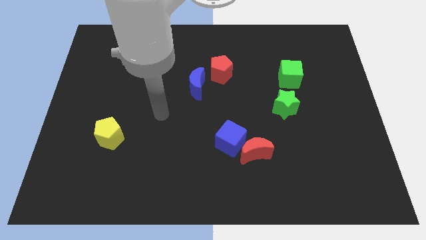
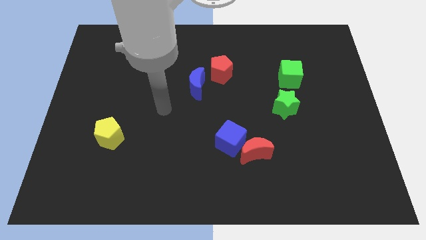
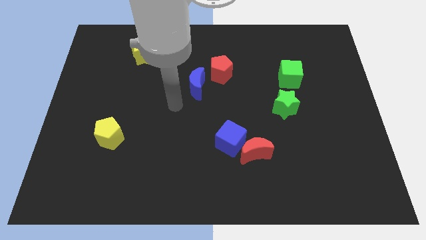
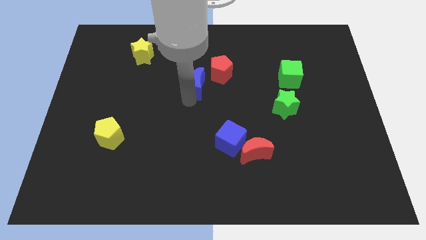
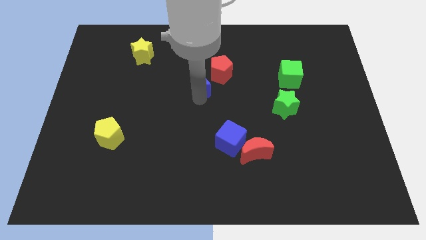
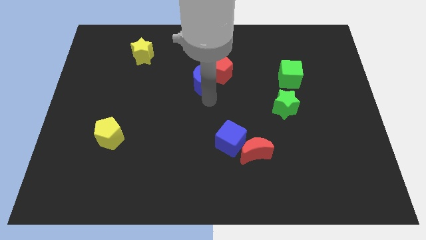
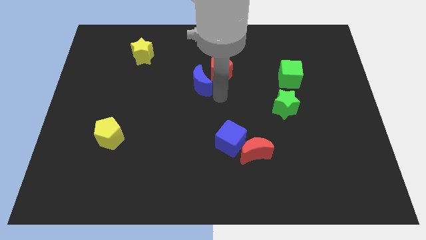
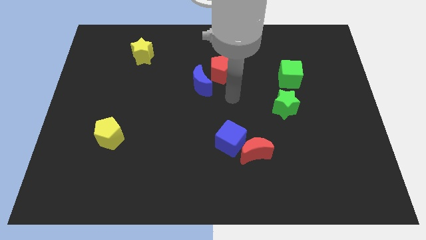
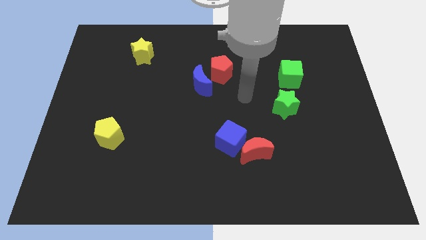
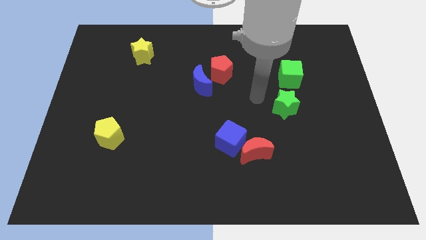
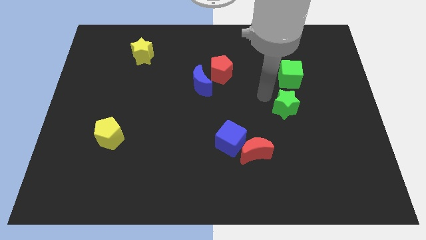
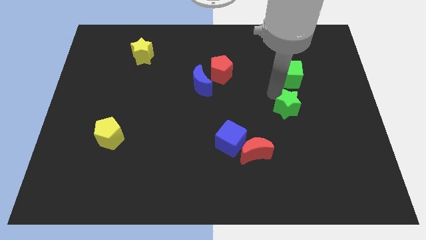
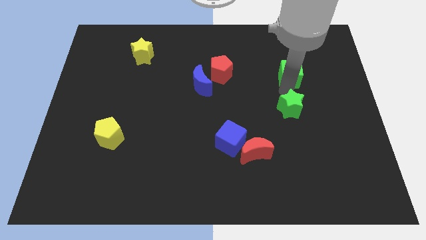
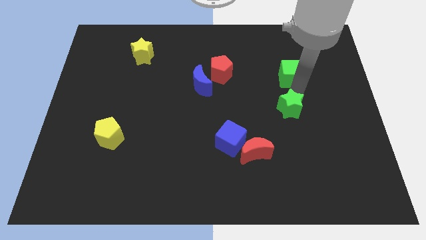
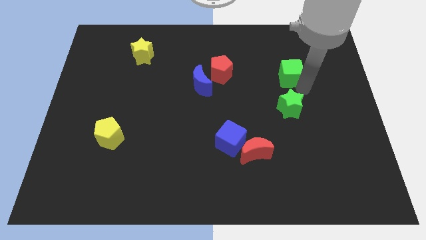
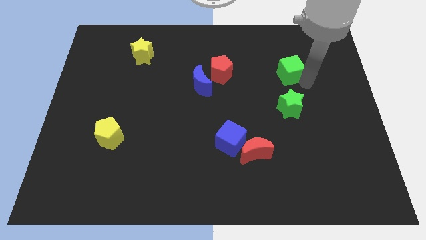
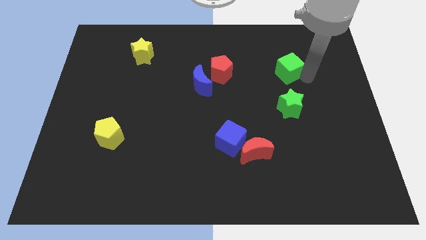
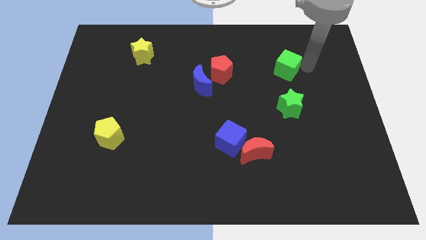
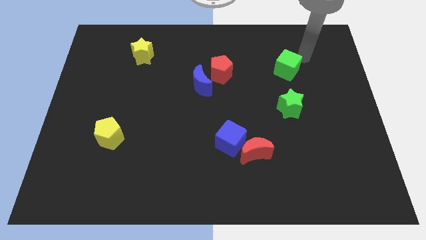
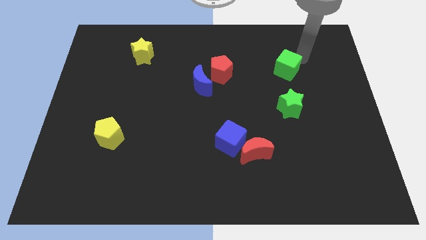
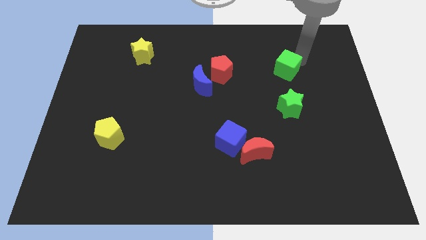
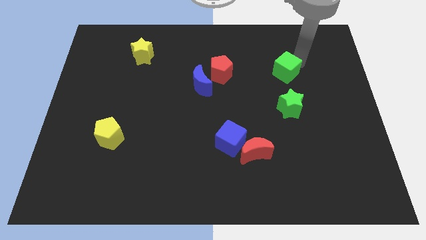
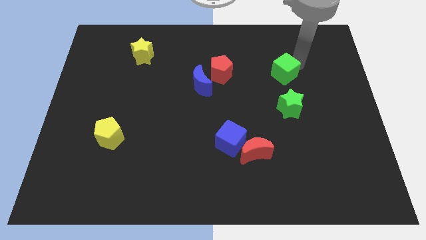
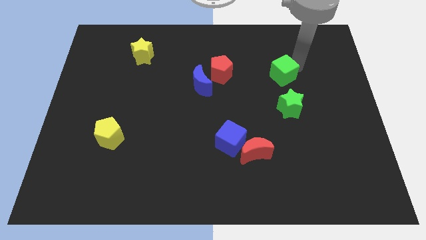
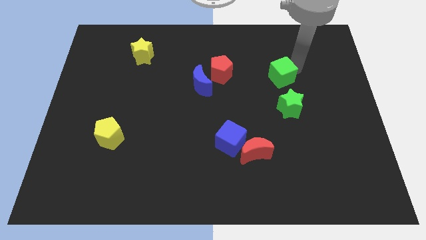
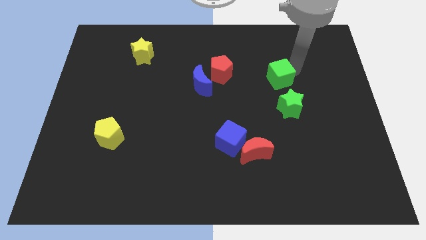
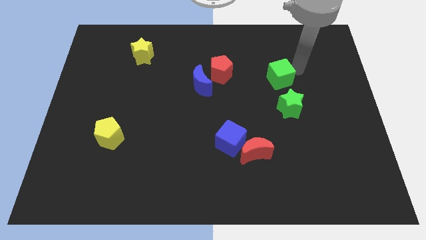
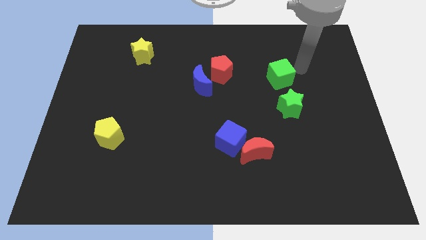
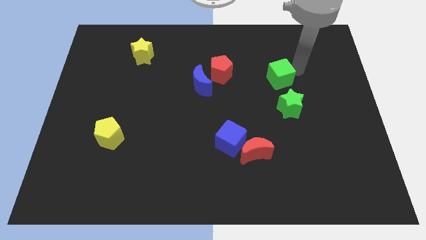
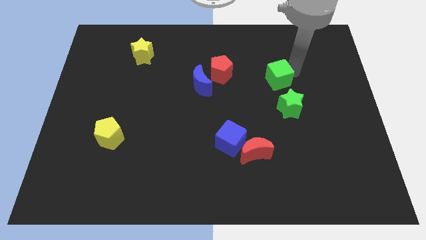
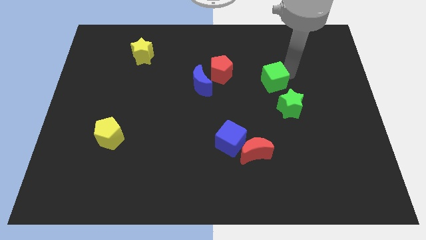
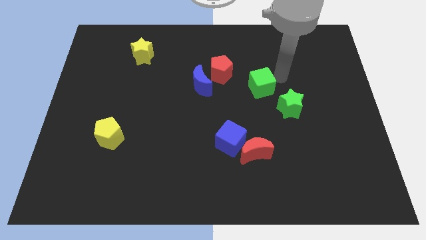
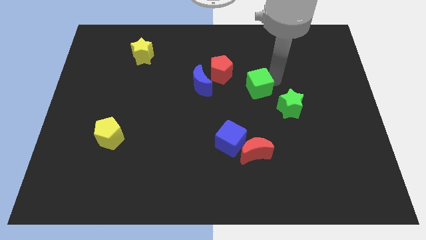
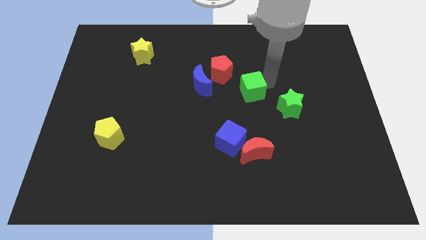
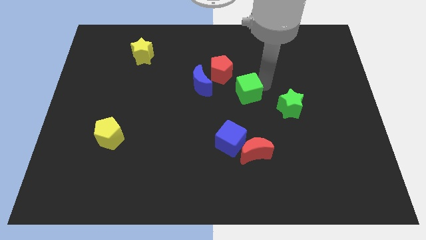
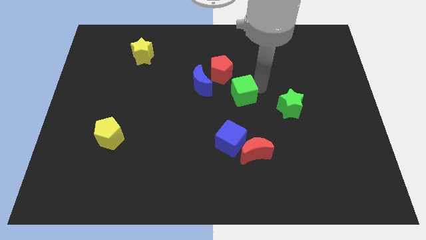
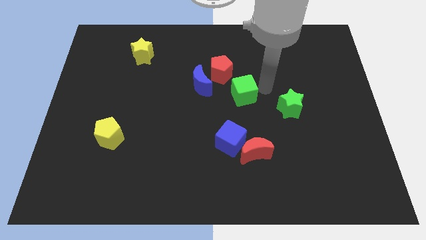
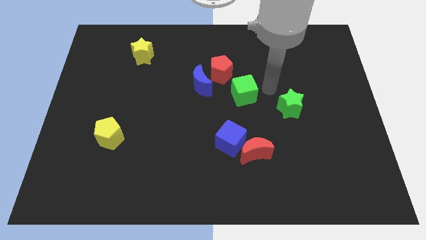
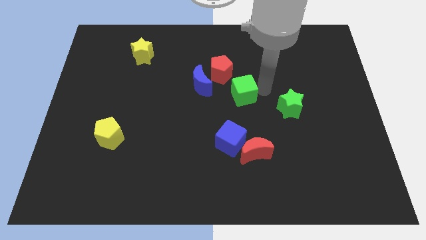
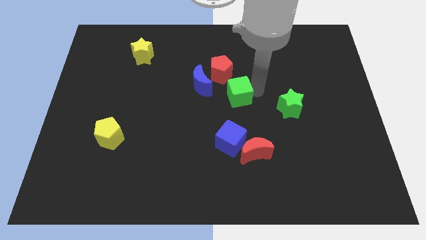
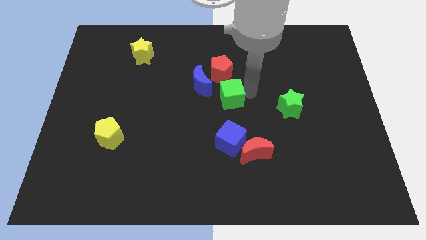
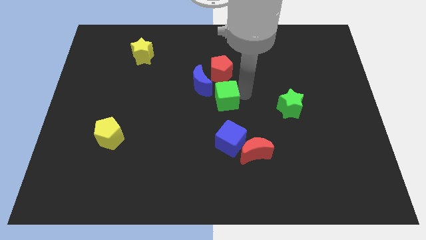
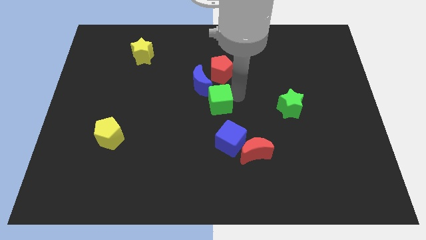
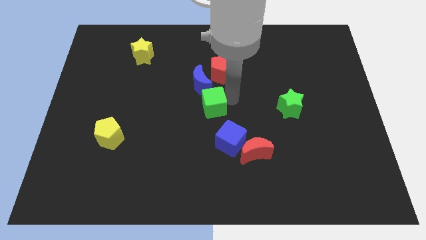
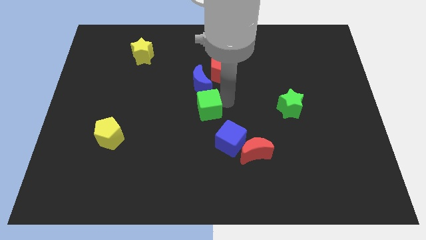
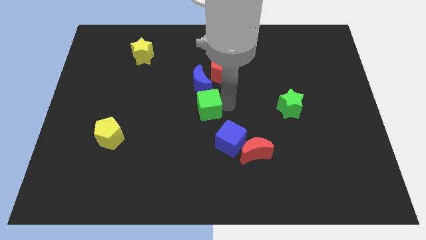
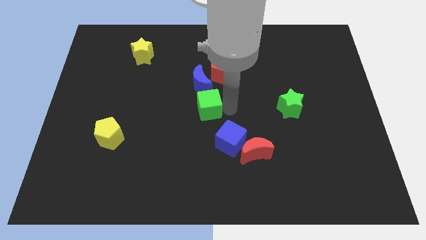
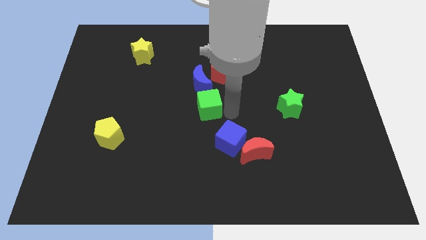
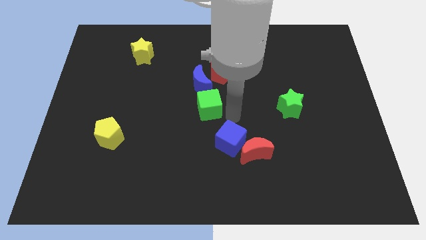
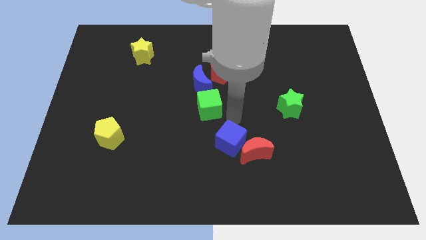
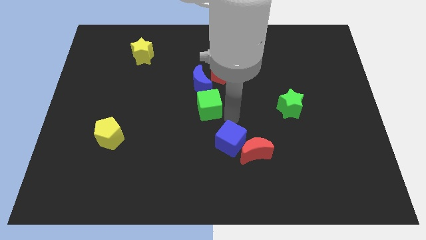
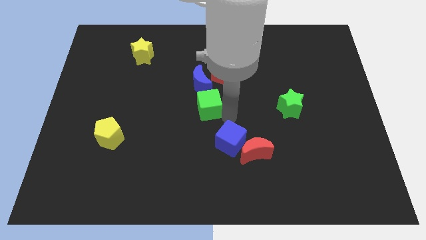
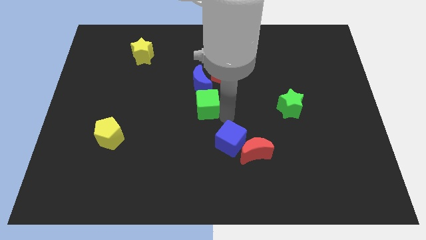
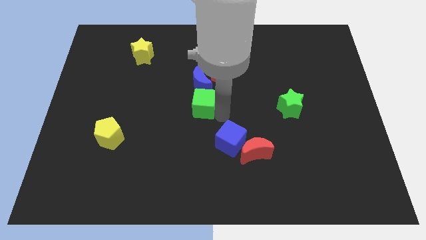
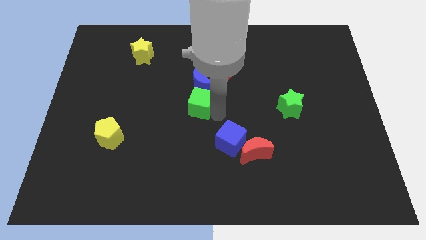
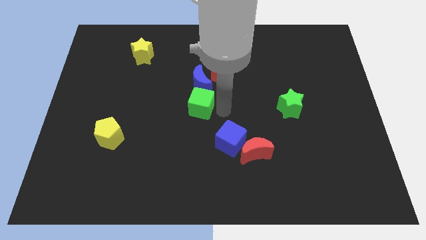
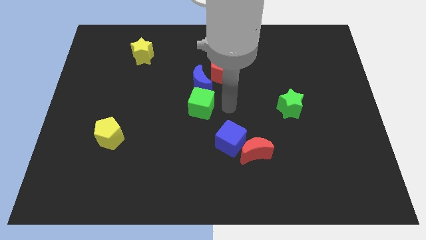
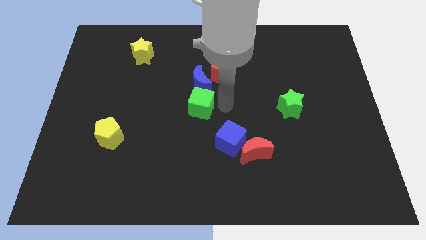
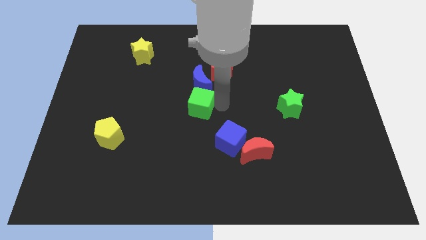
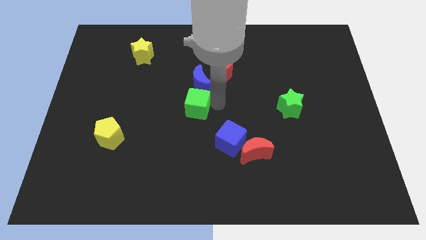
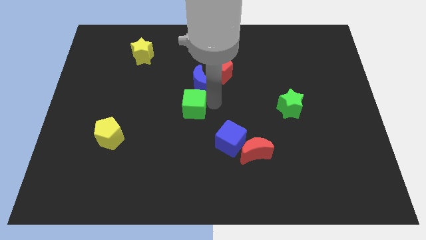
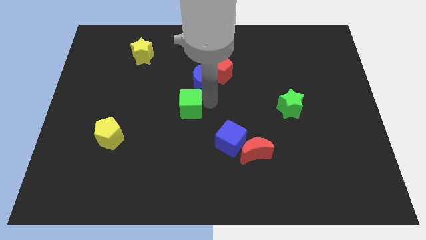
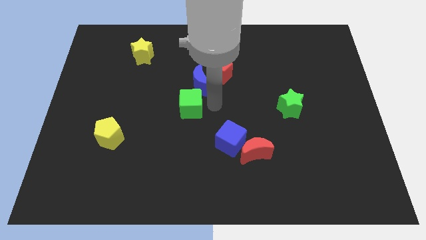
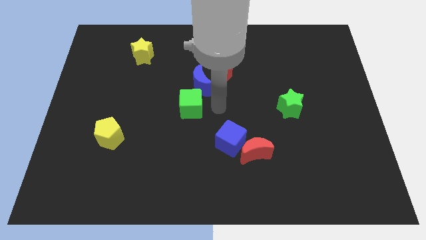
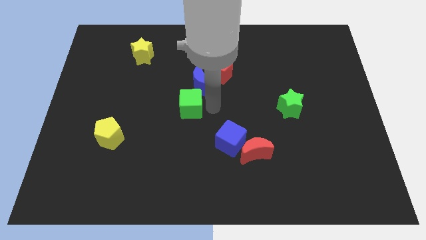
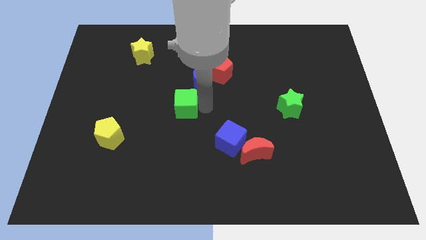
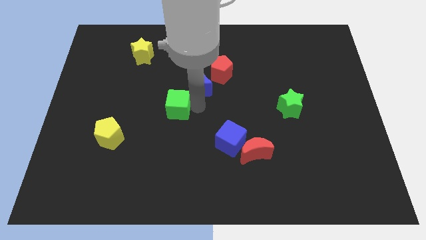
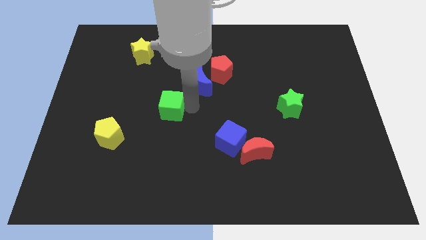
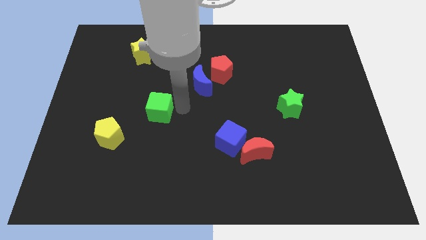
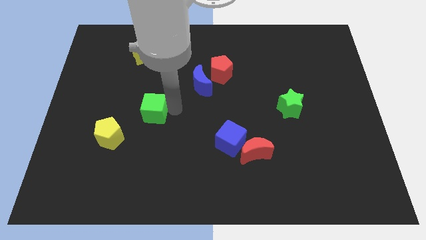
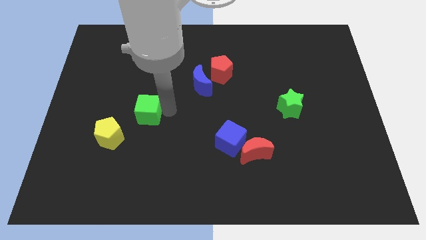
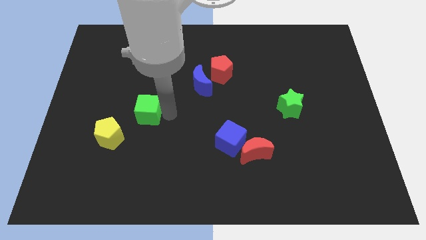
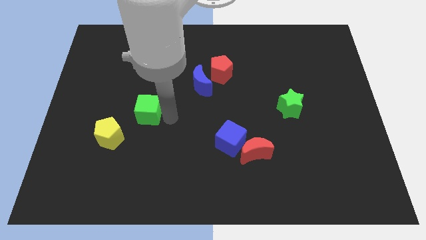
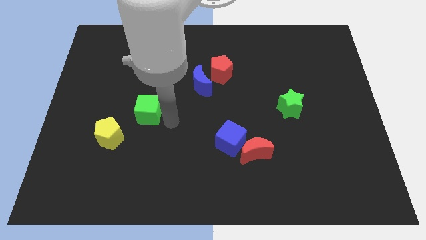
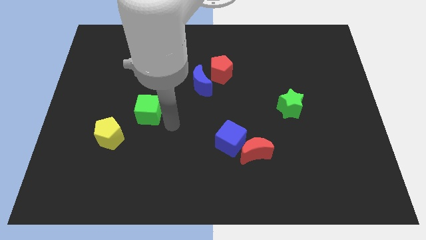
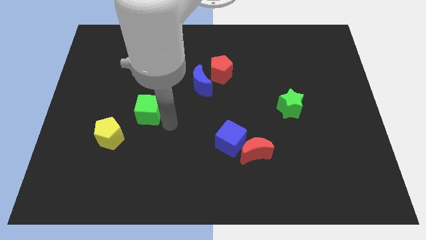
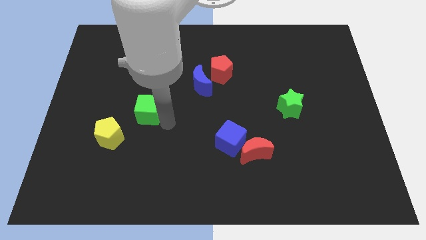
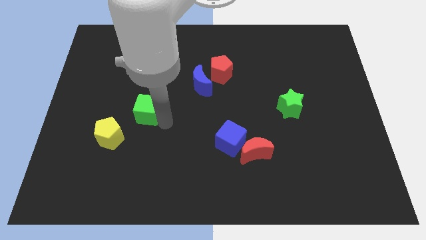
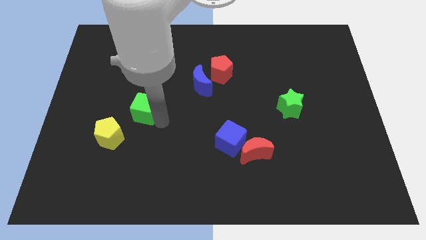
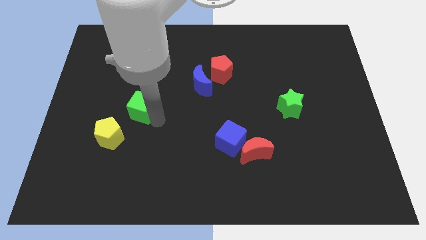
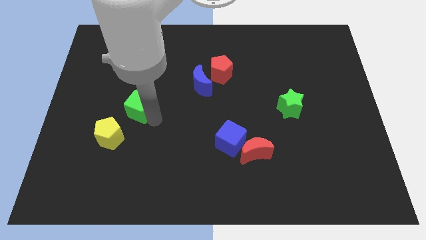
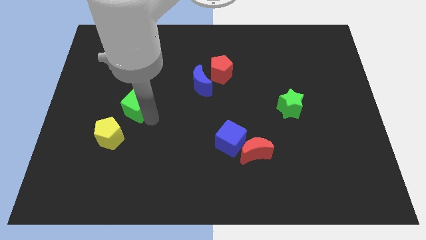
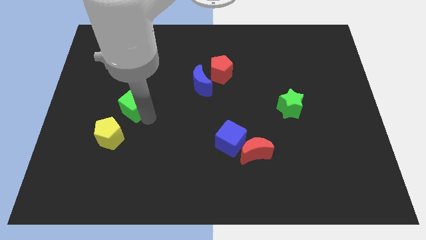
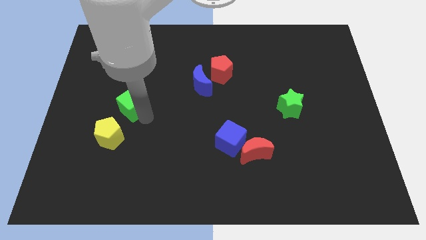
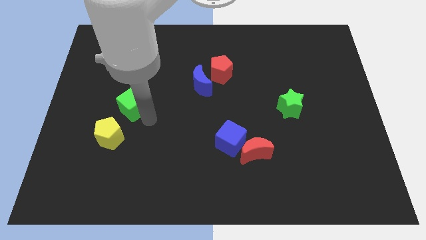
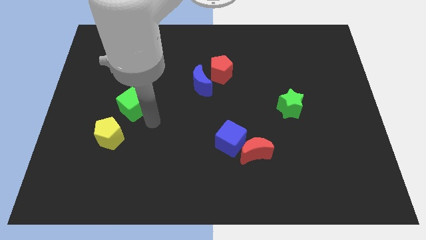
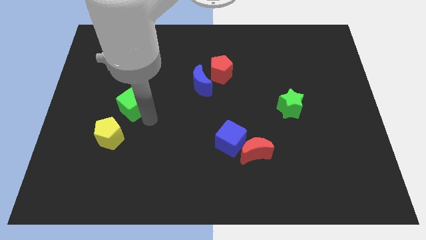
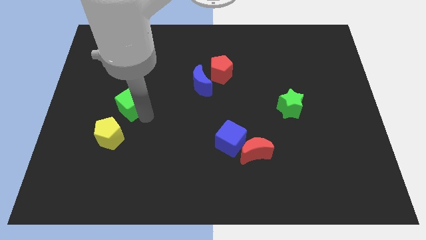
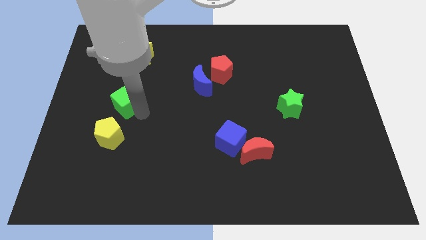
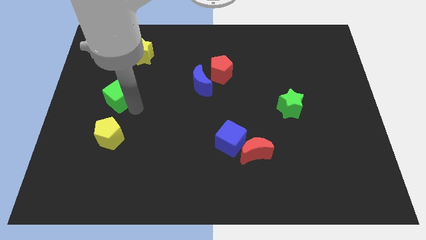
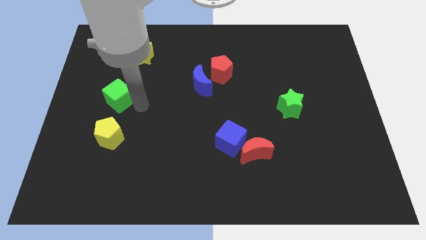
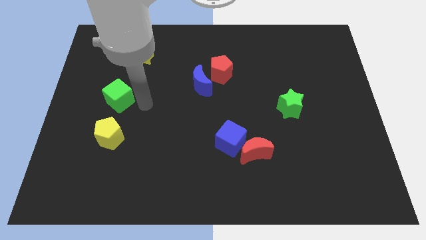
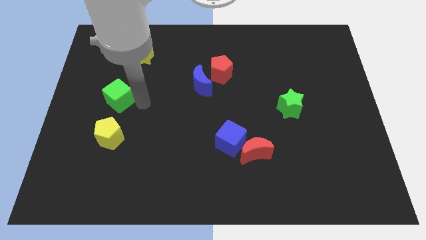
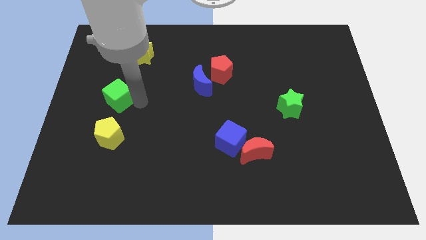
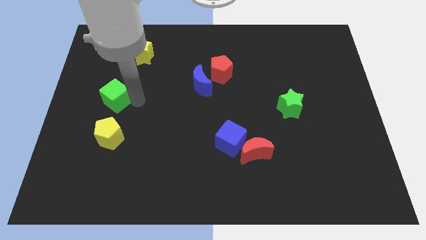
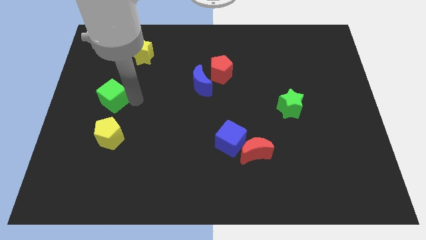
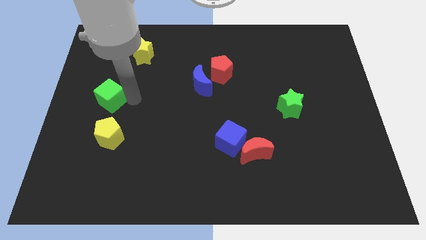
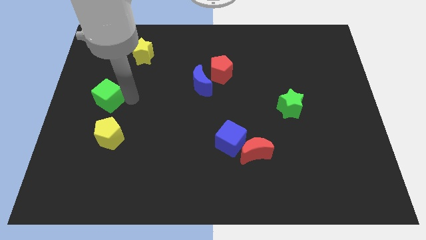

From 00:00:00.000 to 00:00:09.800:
slide the green cube to the left side
